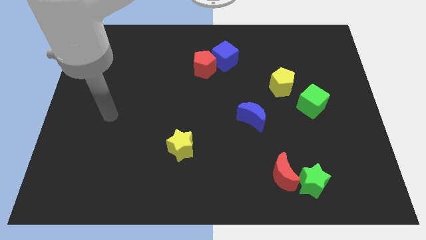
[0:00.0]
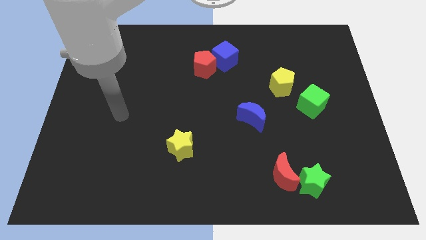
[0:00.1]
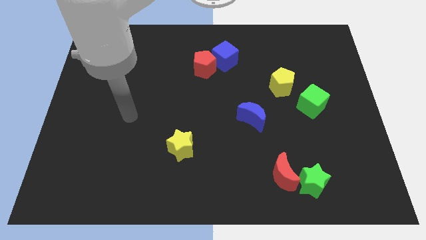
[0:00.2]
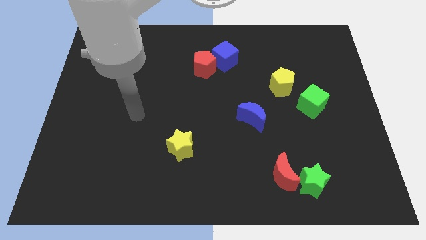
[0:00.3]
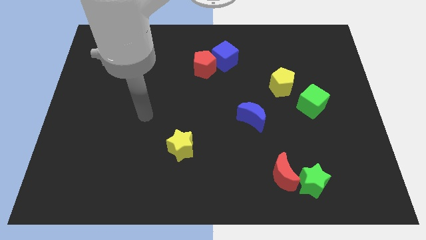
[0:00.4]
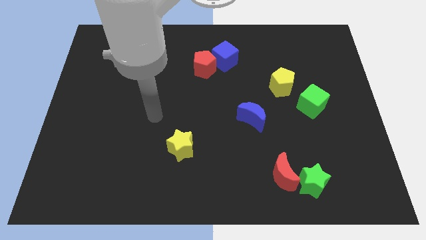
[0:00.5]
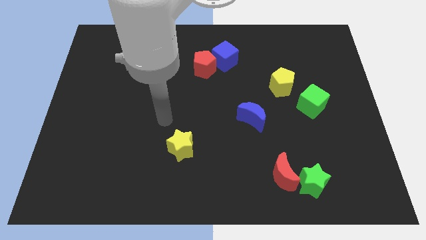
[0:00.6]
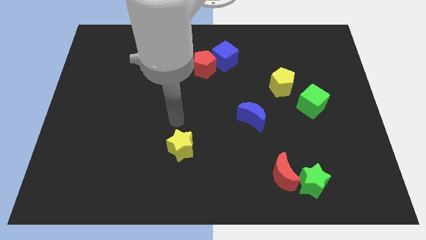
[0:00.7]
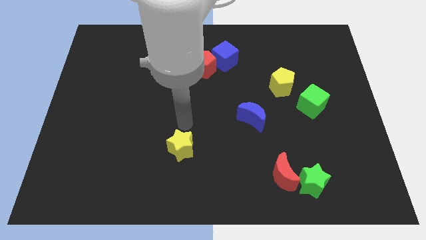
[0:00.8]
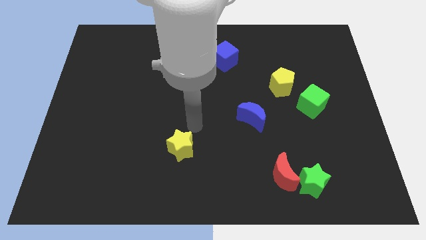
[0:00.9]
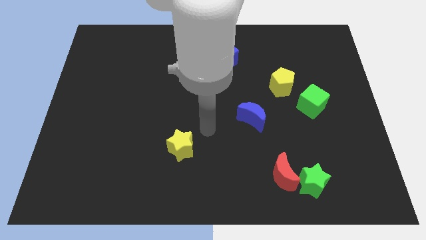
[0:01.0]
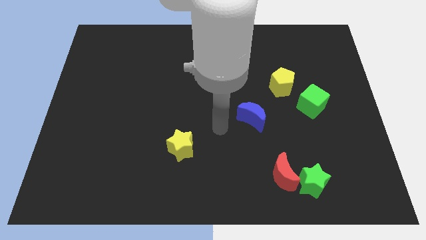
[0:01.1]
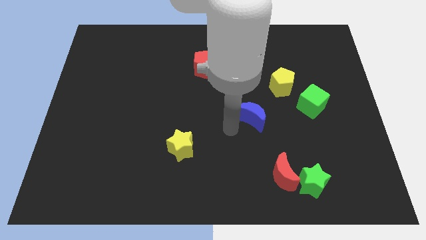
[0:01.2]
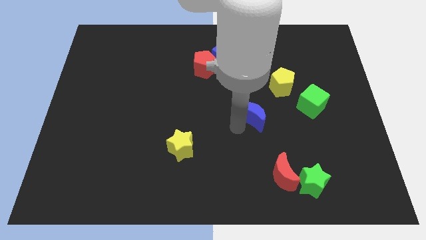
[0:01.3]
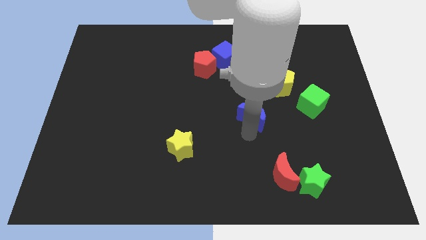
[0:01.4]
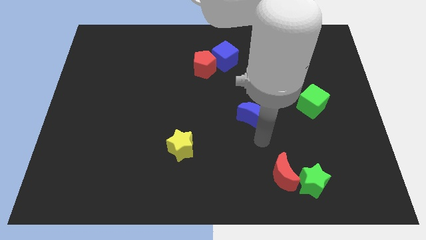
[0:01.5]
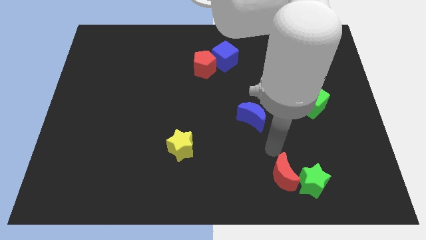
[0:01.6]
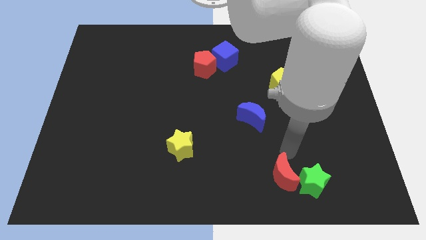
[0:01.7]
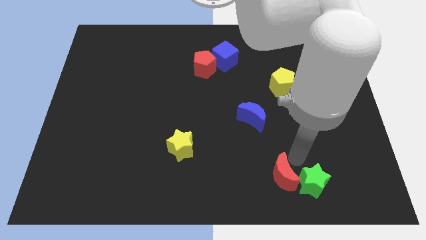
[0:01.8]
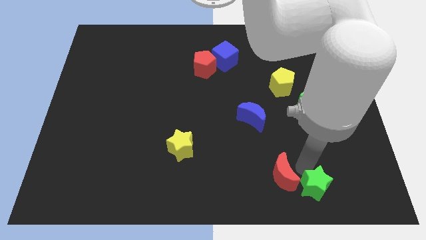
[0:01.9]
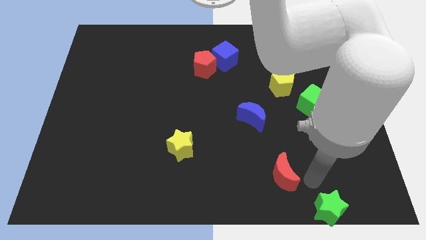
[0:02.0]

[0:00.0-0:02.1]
pull the red moon apart from the green star

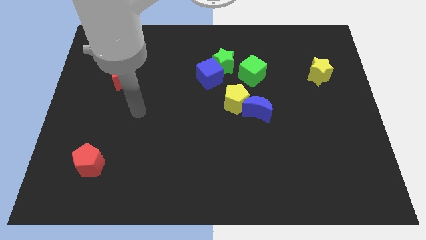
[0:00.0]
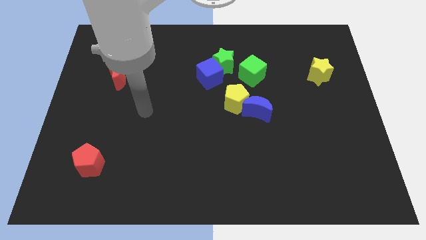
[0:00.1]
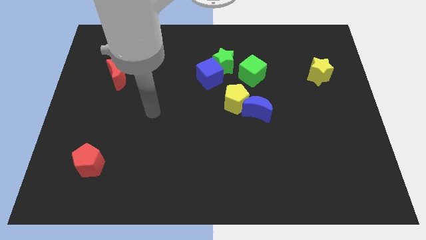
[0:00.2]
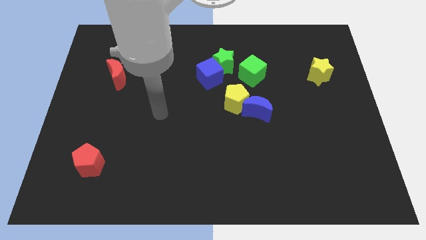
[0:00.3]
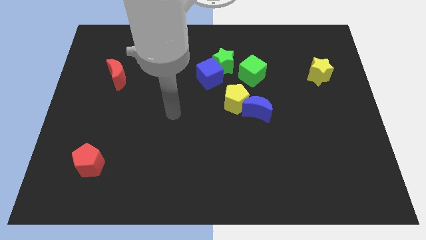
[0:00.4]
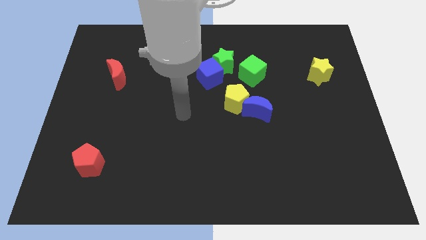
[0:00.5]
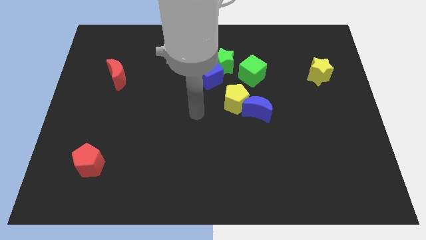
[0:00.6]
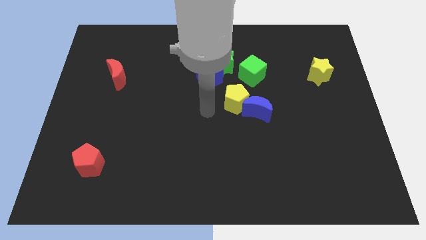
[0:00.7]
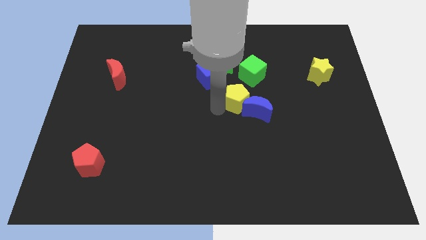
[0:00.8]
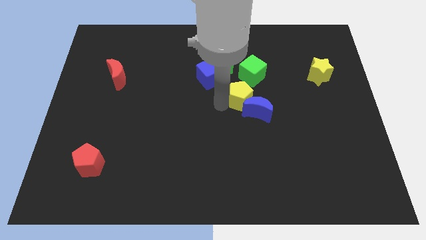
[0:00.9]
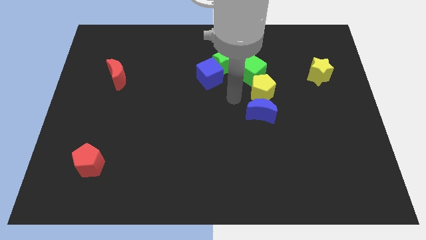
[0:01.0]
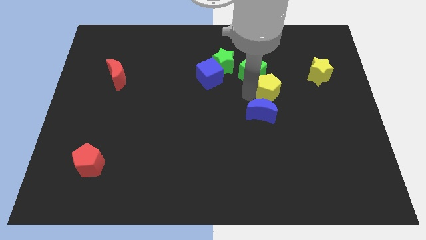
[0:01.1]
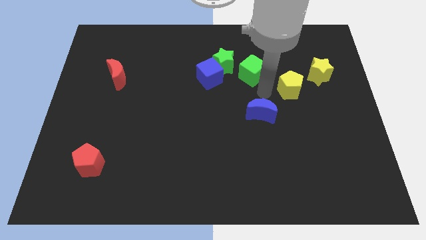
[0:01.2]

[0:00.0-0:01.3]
move the blue moon away from the yellow pentagon

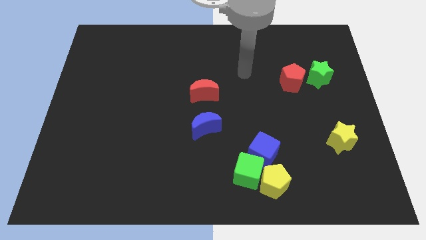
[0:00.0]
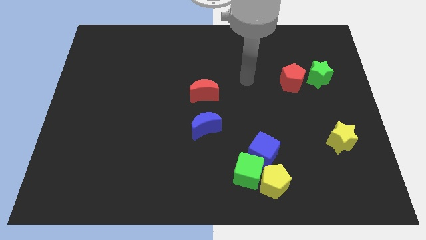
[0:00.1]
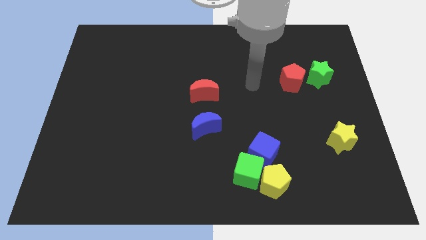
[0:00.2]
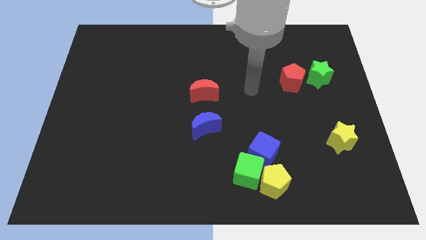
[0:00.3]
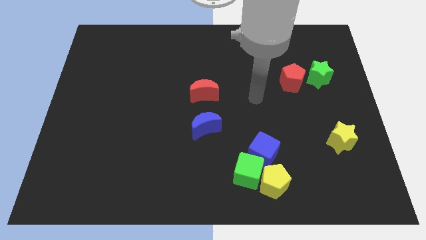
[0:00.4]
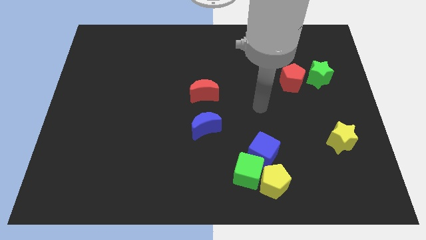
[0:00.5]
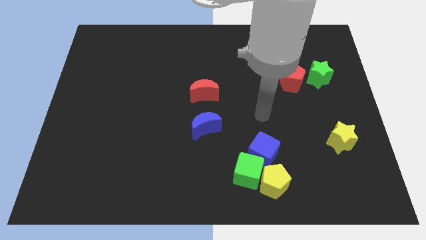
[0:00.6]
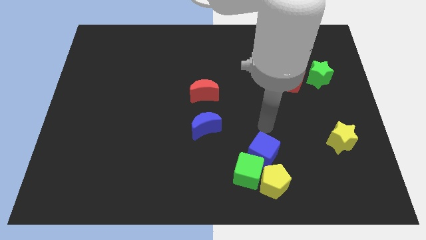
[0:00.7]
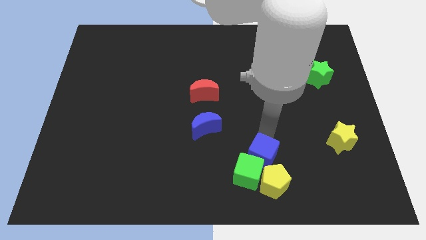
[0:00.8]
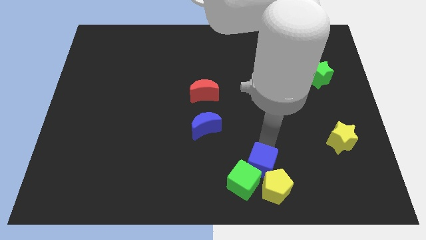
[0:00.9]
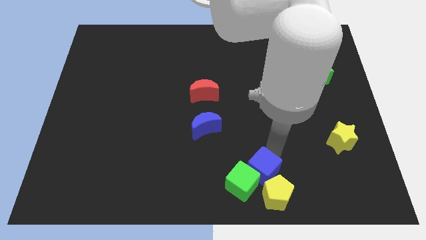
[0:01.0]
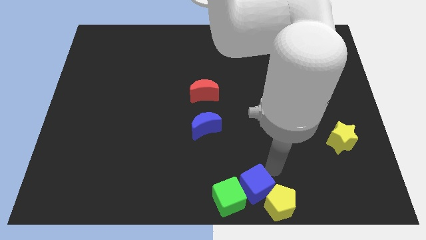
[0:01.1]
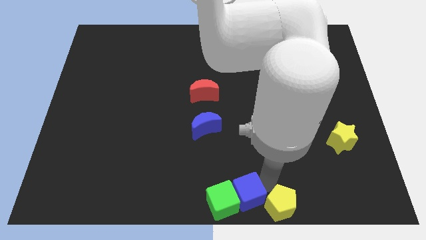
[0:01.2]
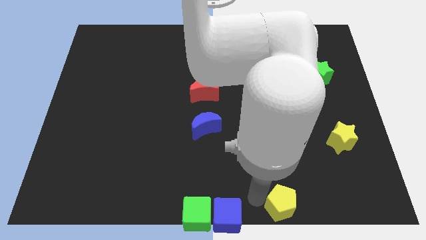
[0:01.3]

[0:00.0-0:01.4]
separate the green cube from the yellow pentagon and blue cube

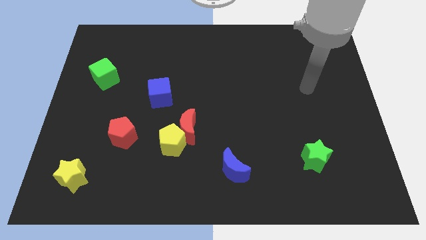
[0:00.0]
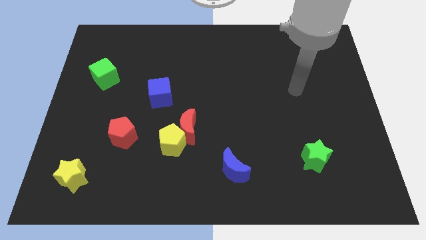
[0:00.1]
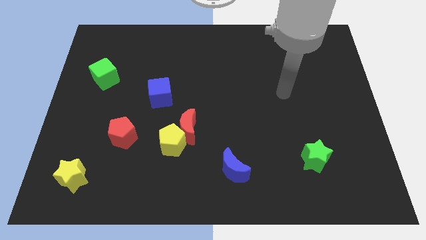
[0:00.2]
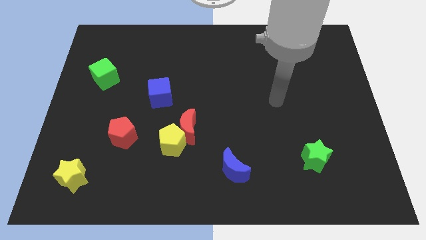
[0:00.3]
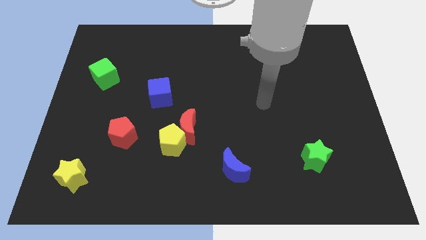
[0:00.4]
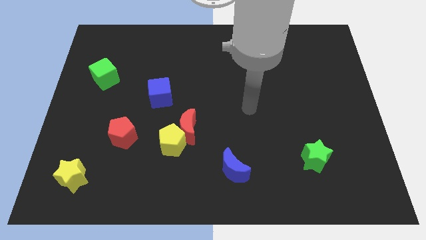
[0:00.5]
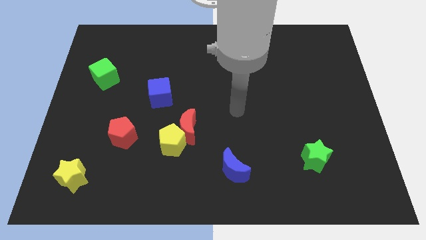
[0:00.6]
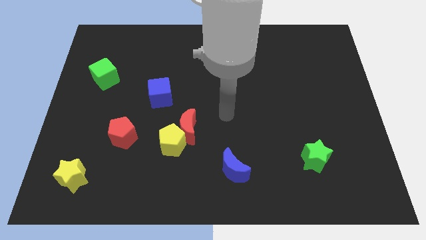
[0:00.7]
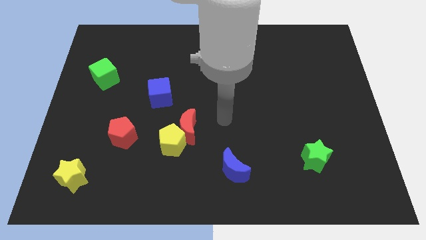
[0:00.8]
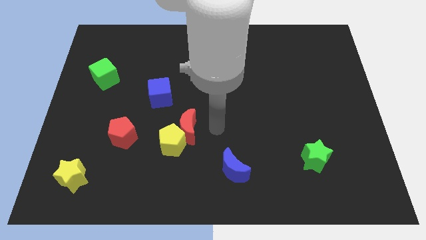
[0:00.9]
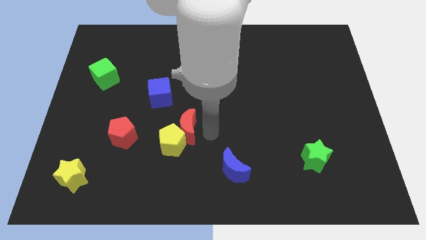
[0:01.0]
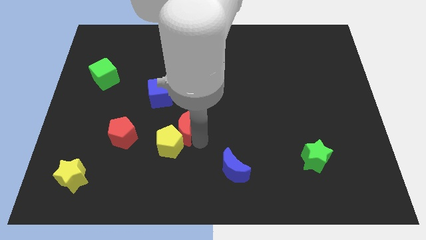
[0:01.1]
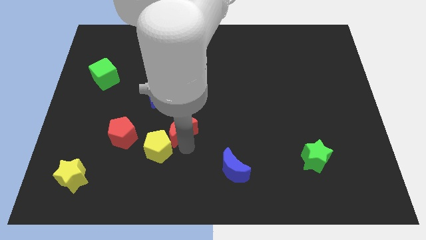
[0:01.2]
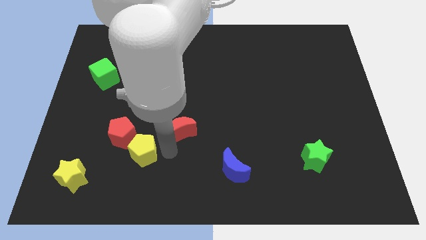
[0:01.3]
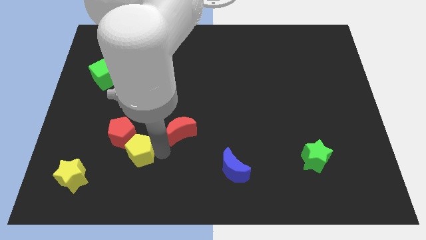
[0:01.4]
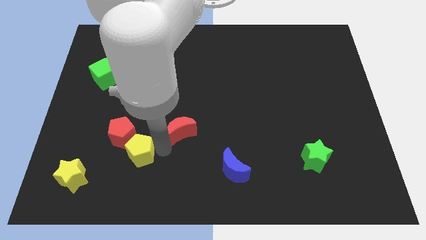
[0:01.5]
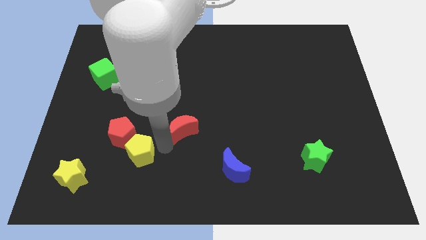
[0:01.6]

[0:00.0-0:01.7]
separate the red moon from the yellow pentagon

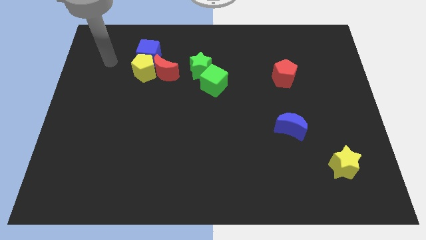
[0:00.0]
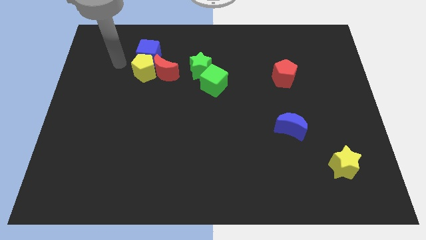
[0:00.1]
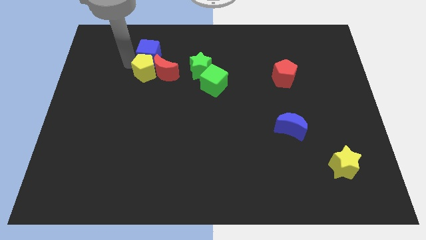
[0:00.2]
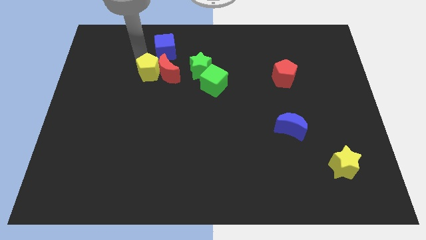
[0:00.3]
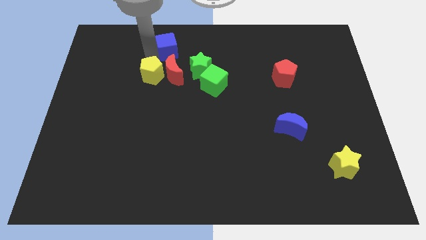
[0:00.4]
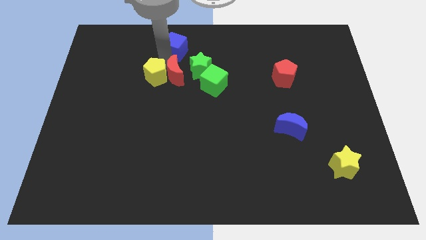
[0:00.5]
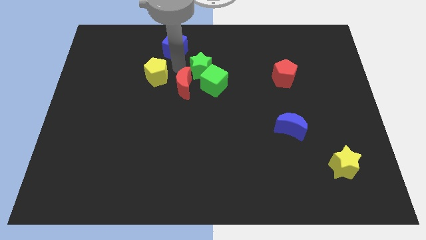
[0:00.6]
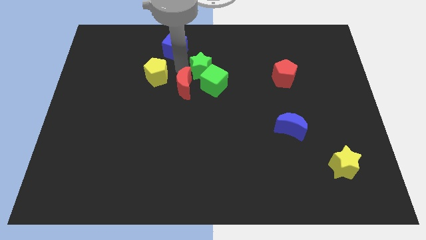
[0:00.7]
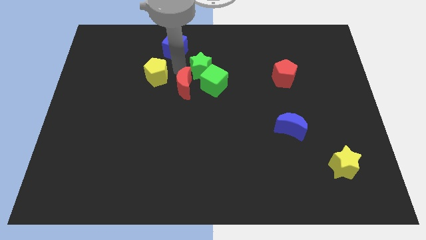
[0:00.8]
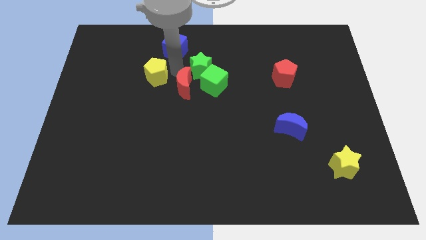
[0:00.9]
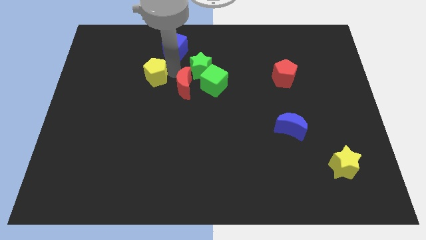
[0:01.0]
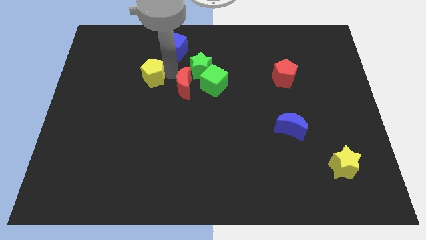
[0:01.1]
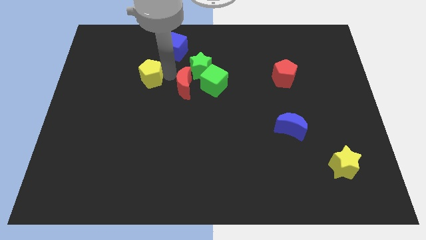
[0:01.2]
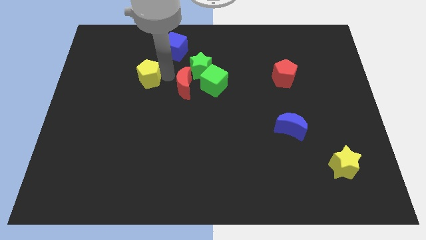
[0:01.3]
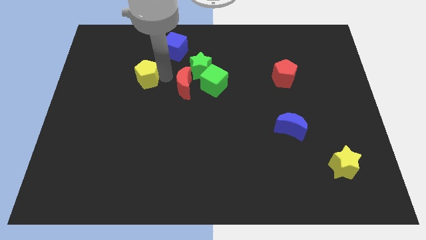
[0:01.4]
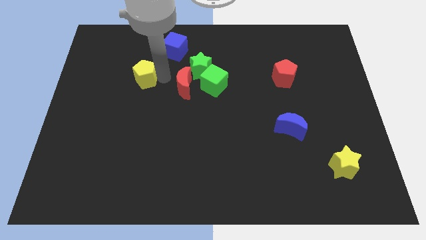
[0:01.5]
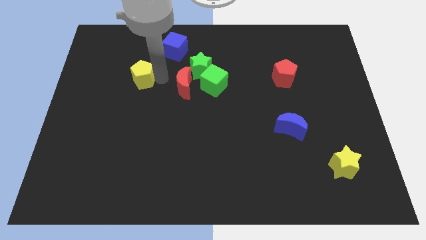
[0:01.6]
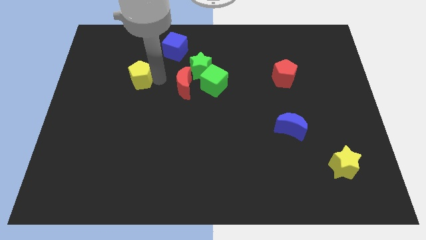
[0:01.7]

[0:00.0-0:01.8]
pull the yellow pentagon apart from the red moon and blue cube

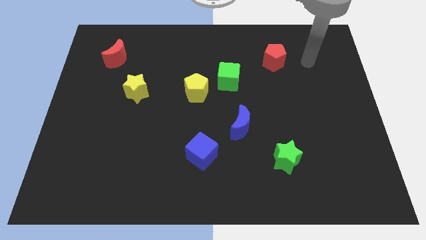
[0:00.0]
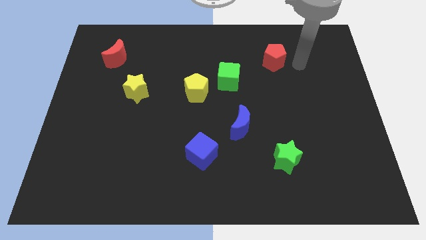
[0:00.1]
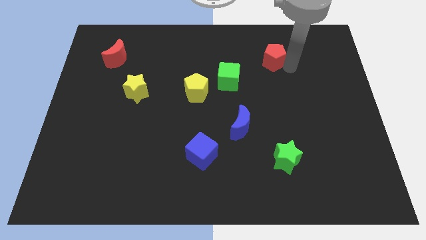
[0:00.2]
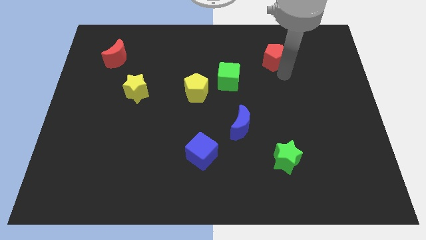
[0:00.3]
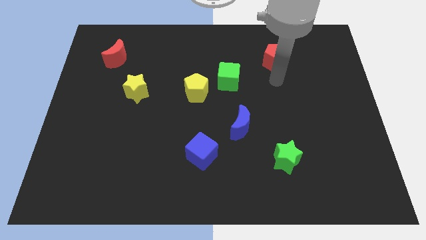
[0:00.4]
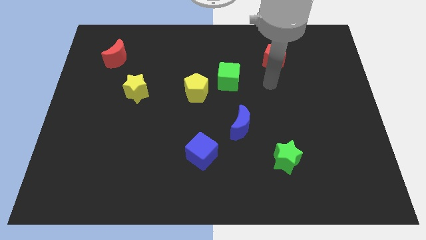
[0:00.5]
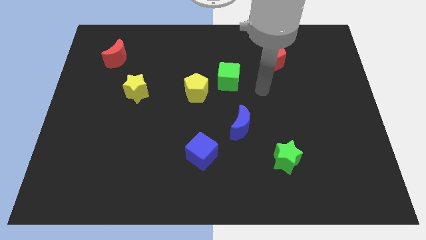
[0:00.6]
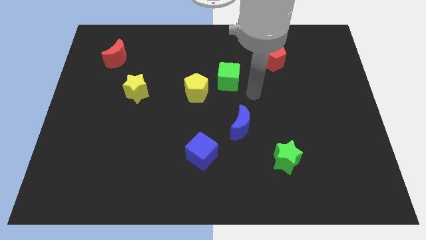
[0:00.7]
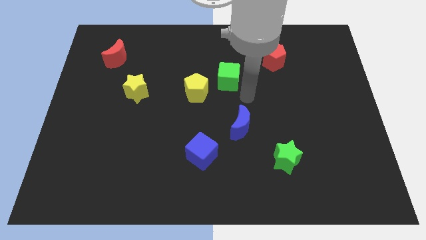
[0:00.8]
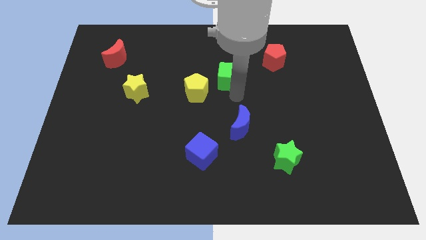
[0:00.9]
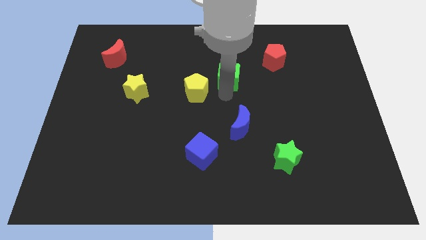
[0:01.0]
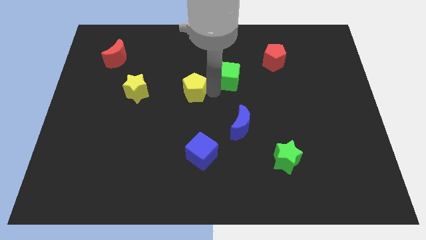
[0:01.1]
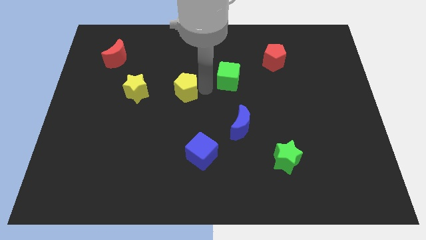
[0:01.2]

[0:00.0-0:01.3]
separate the green cube from the yellow pentagon
